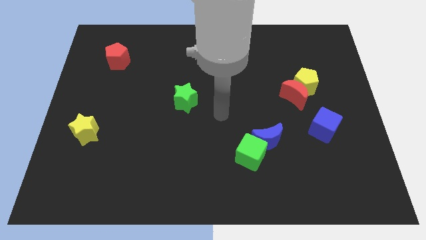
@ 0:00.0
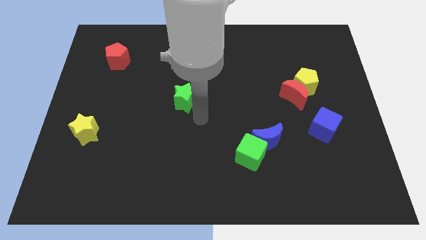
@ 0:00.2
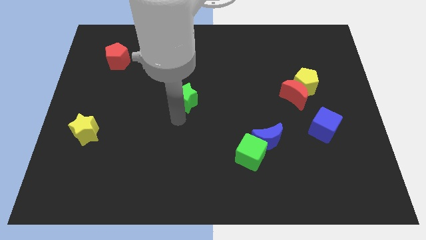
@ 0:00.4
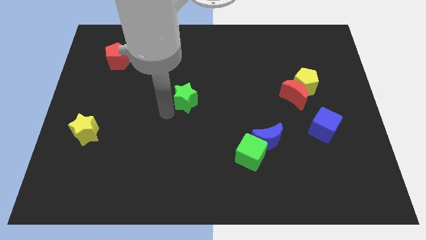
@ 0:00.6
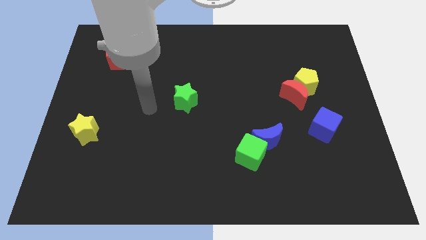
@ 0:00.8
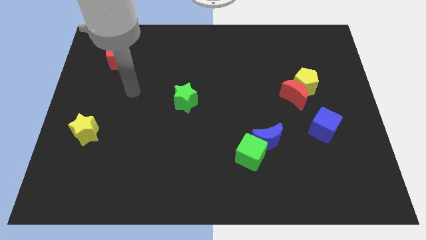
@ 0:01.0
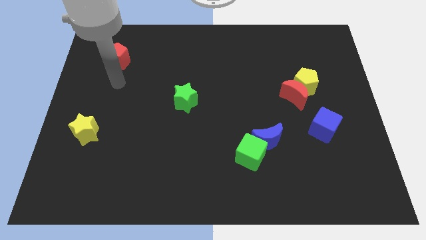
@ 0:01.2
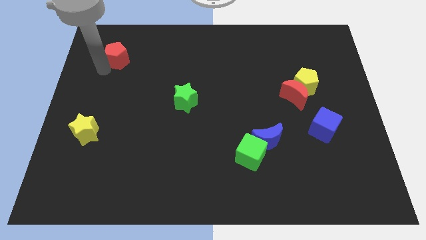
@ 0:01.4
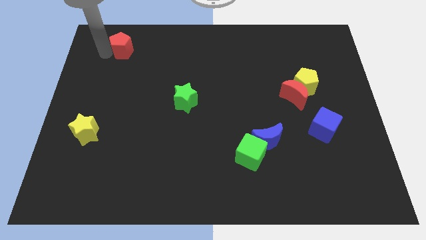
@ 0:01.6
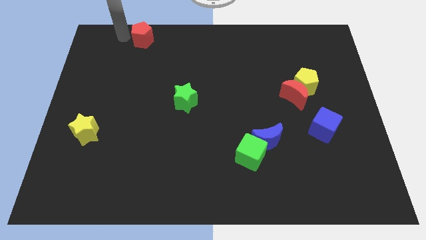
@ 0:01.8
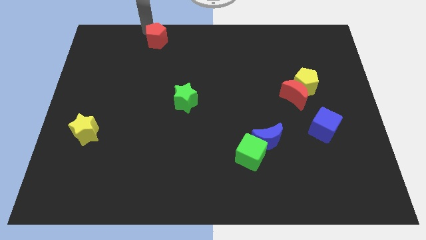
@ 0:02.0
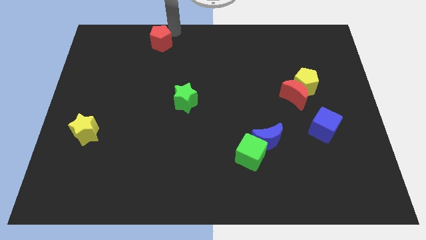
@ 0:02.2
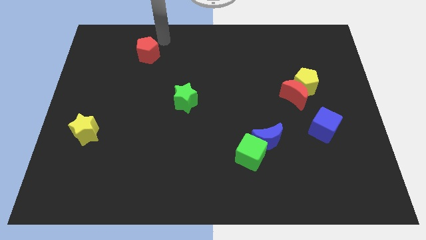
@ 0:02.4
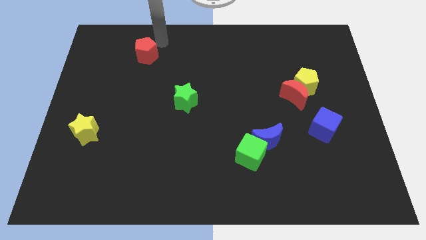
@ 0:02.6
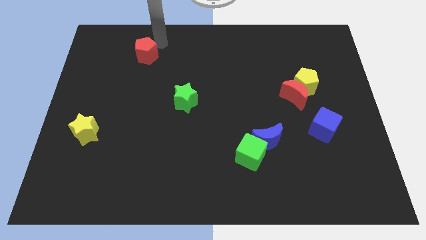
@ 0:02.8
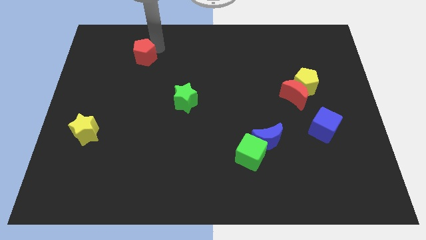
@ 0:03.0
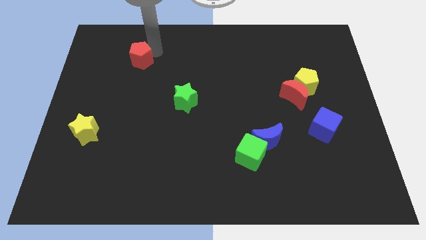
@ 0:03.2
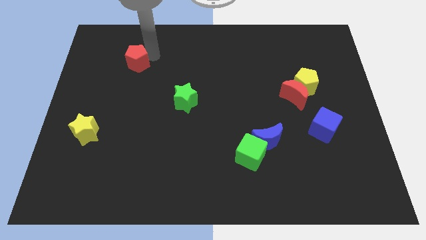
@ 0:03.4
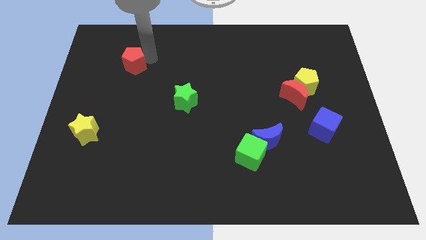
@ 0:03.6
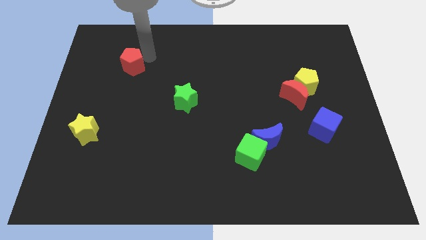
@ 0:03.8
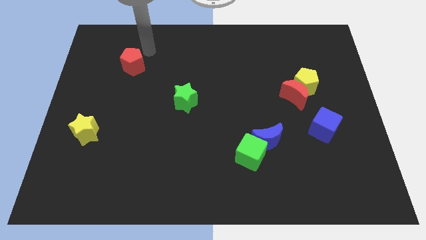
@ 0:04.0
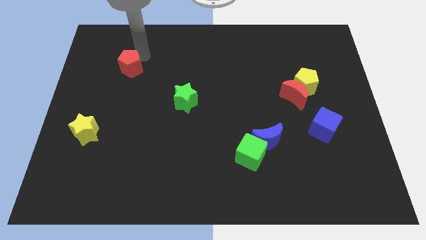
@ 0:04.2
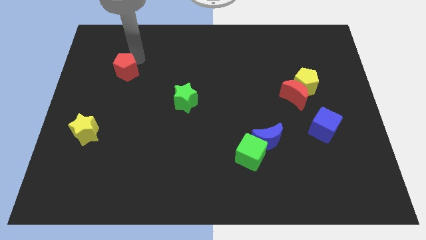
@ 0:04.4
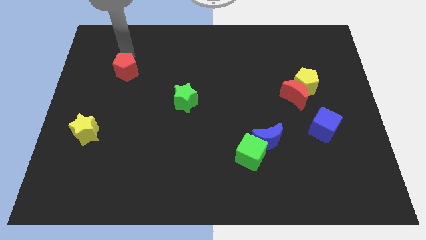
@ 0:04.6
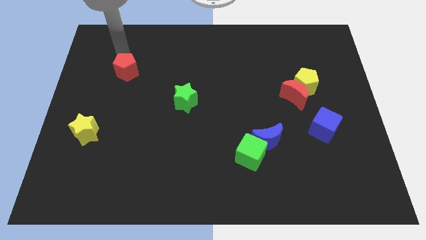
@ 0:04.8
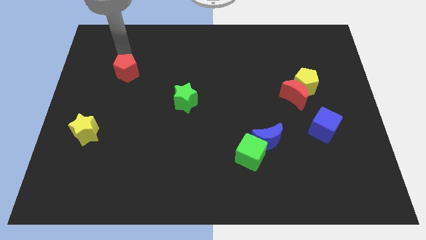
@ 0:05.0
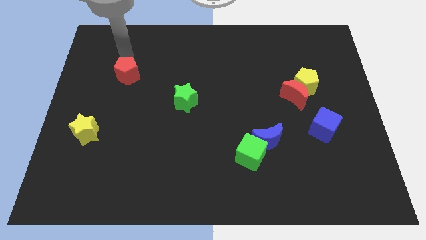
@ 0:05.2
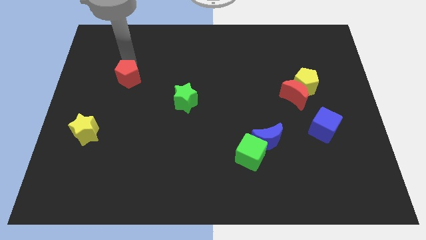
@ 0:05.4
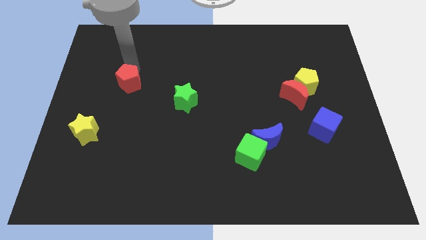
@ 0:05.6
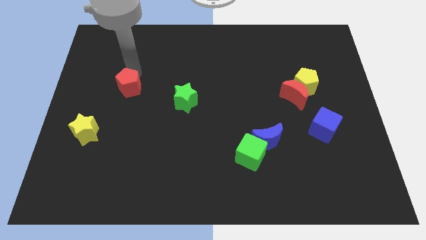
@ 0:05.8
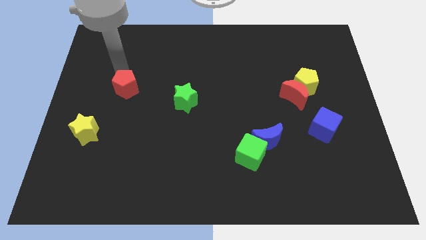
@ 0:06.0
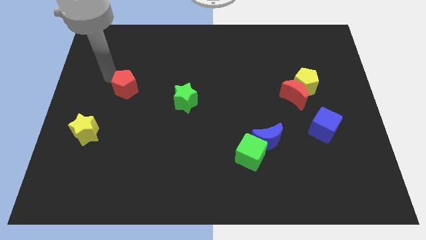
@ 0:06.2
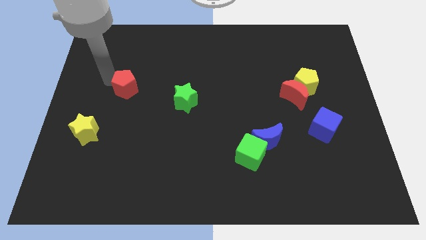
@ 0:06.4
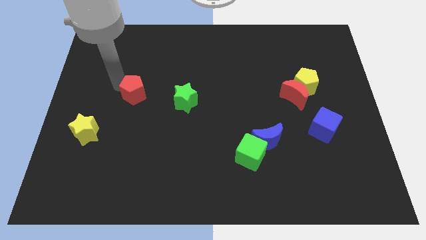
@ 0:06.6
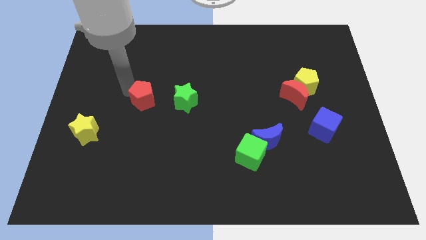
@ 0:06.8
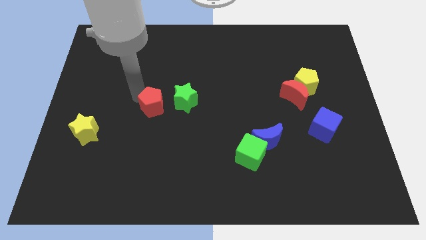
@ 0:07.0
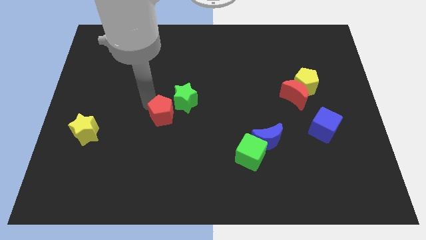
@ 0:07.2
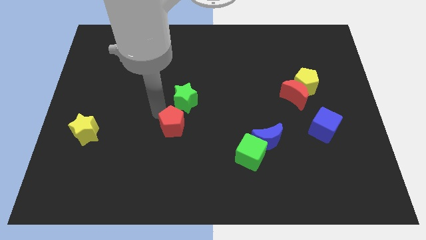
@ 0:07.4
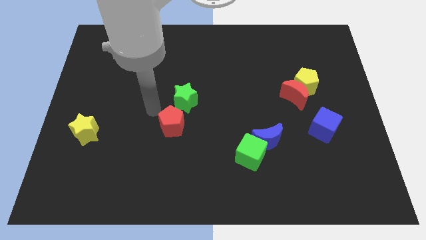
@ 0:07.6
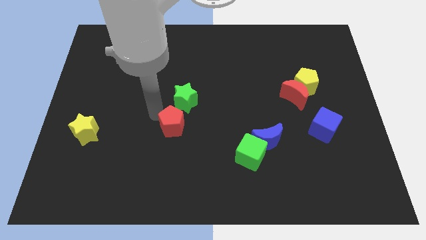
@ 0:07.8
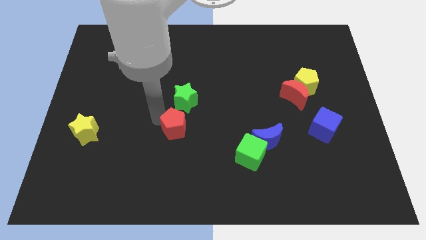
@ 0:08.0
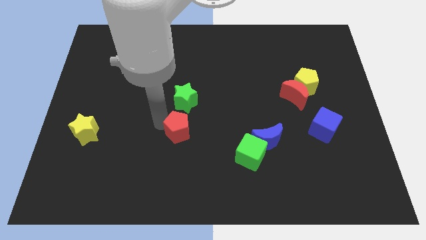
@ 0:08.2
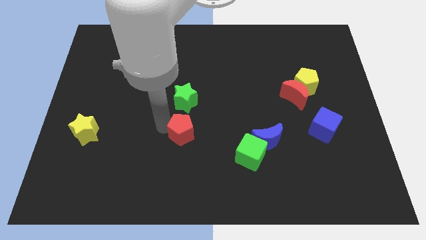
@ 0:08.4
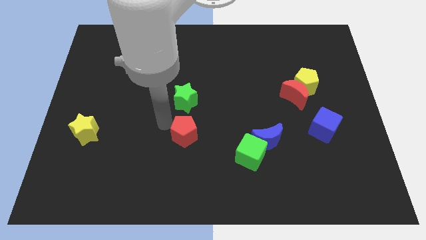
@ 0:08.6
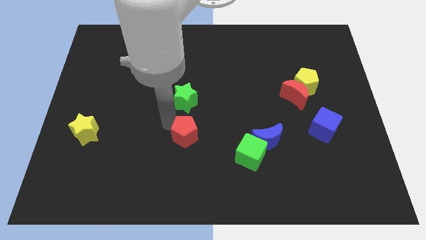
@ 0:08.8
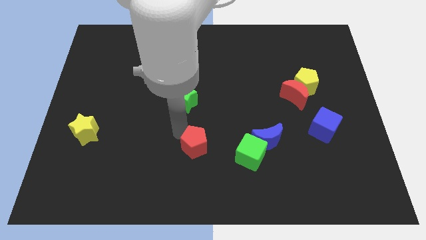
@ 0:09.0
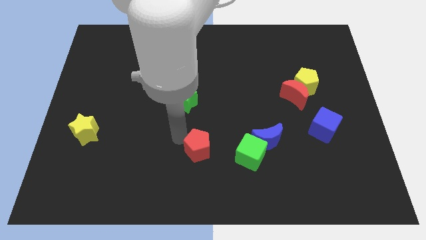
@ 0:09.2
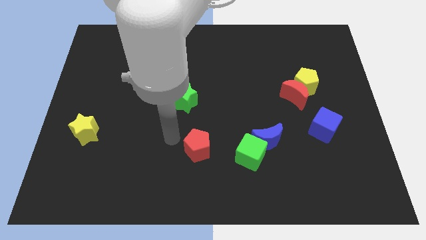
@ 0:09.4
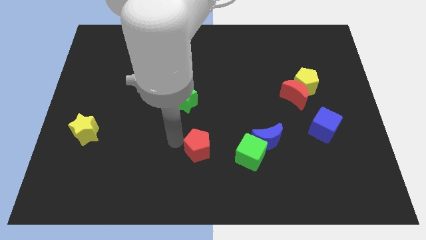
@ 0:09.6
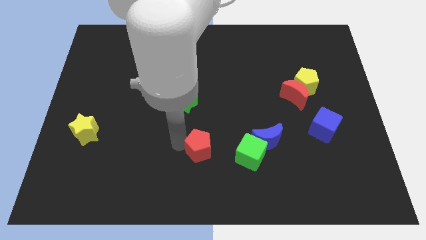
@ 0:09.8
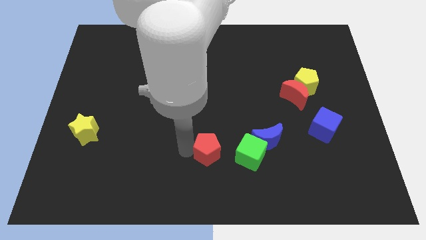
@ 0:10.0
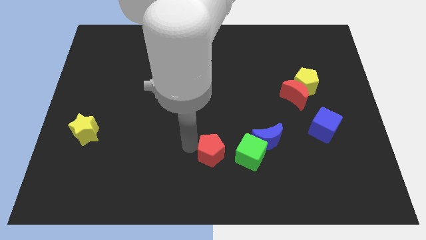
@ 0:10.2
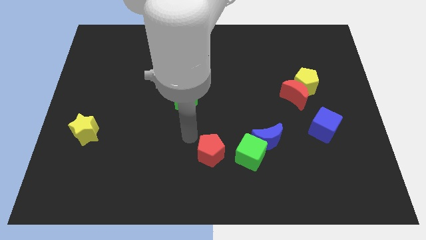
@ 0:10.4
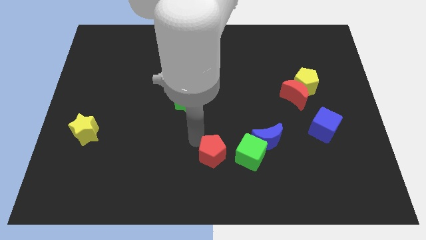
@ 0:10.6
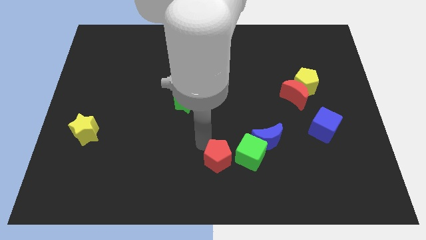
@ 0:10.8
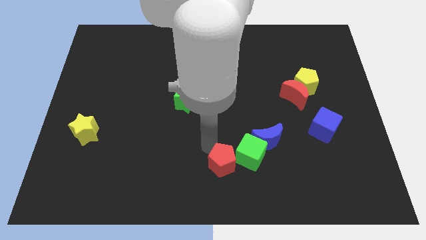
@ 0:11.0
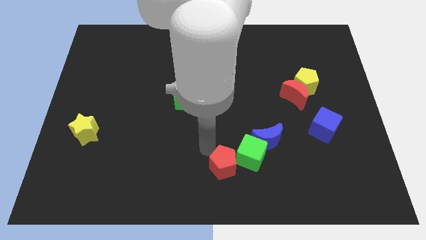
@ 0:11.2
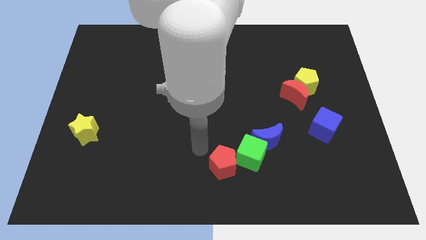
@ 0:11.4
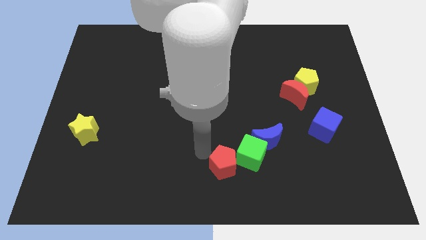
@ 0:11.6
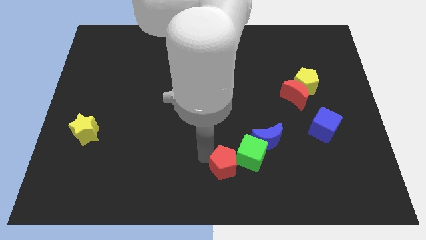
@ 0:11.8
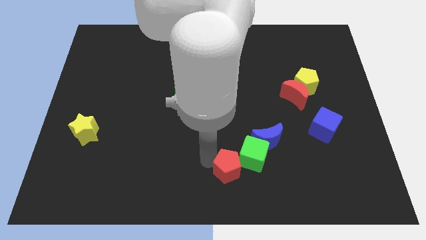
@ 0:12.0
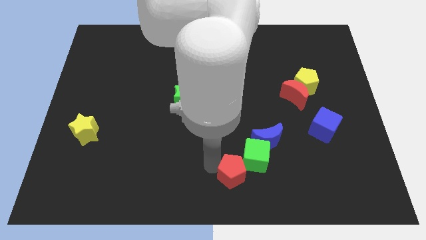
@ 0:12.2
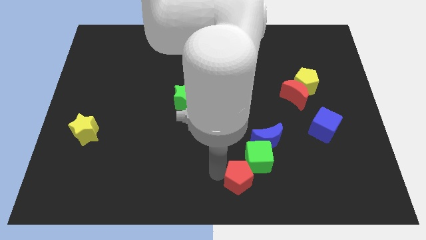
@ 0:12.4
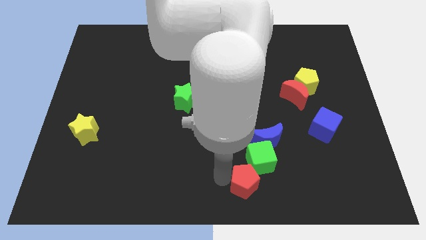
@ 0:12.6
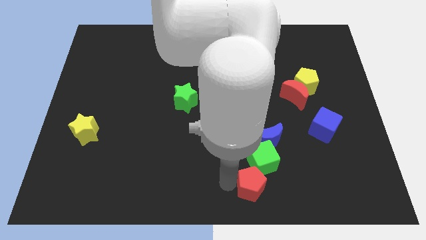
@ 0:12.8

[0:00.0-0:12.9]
move the red pentagon below the blue moon

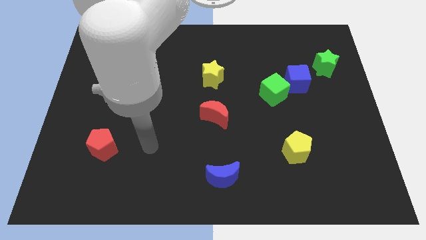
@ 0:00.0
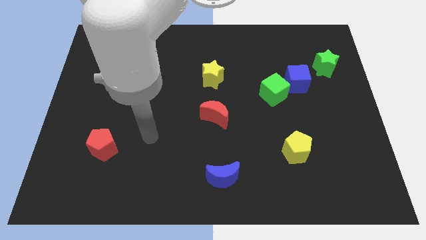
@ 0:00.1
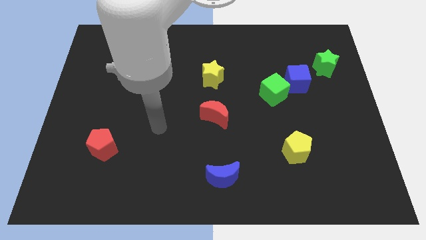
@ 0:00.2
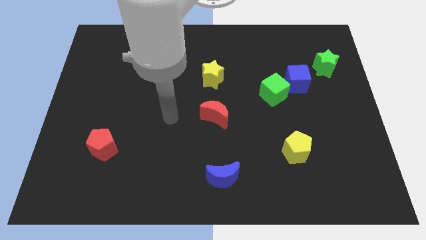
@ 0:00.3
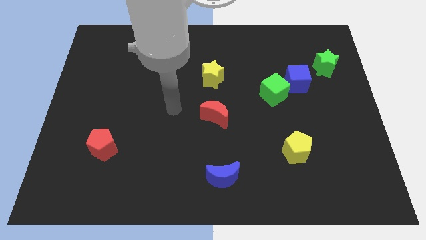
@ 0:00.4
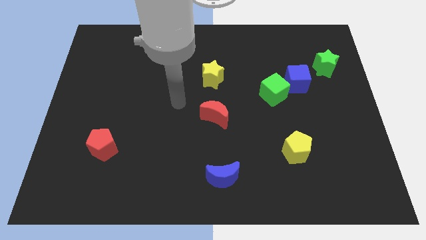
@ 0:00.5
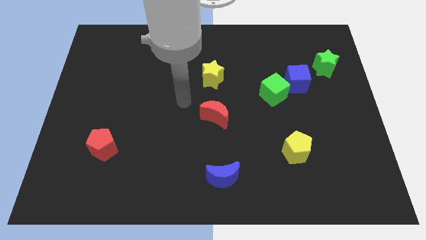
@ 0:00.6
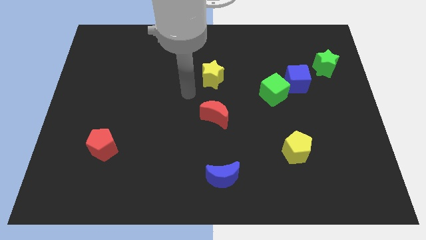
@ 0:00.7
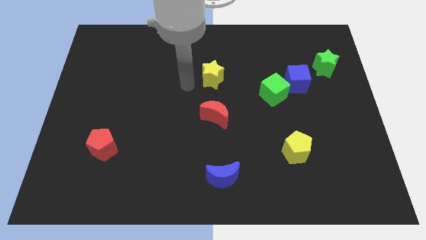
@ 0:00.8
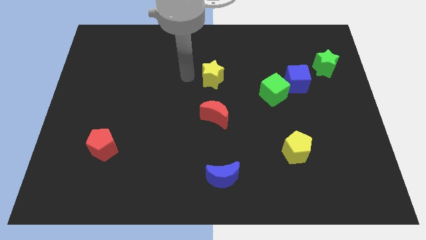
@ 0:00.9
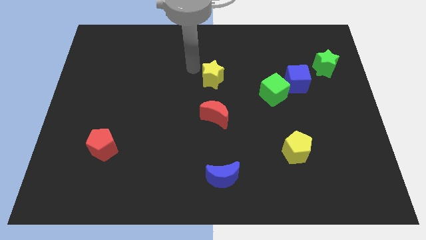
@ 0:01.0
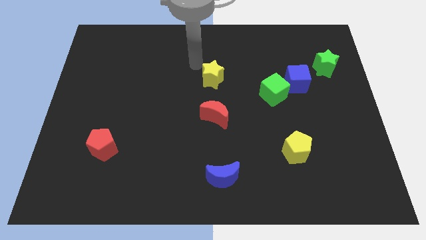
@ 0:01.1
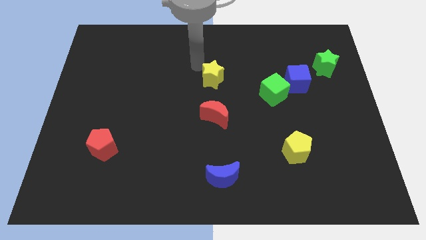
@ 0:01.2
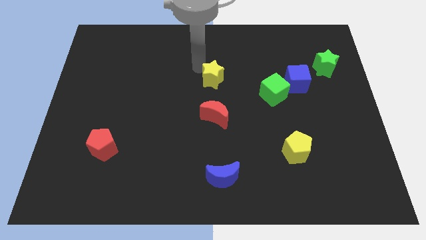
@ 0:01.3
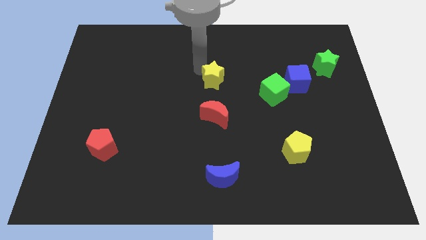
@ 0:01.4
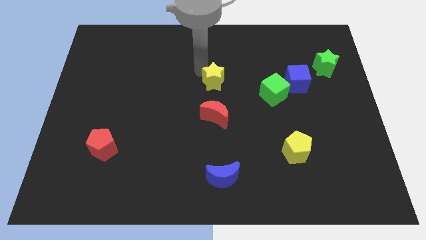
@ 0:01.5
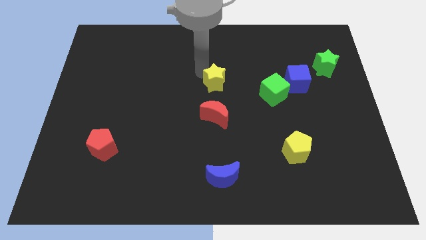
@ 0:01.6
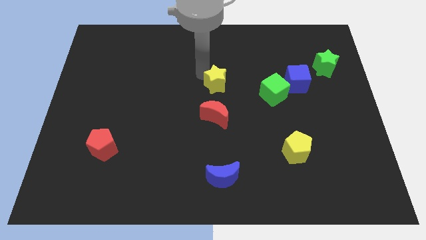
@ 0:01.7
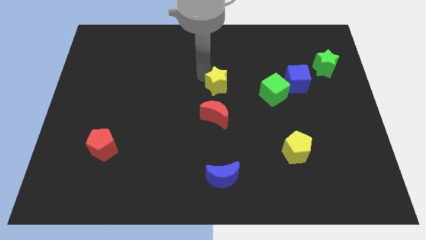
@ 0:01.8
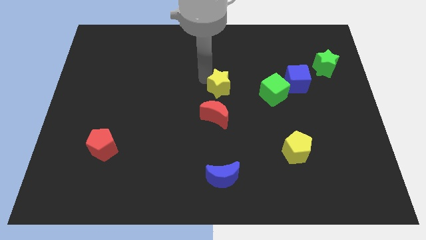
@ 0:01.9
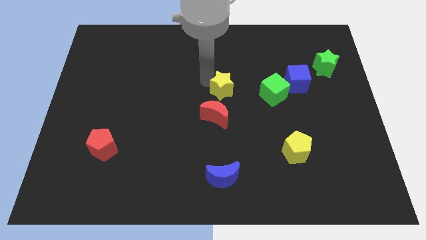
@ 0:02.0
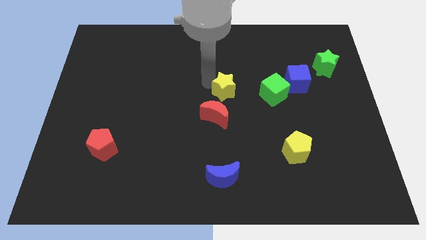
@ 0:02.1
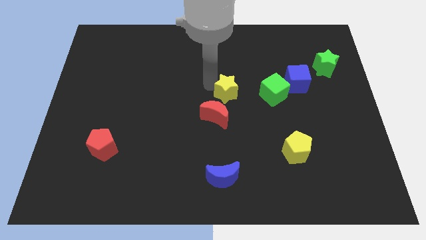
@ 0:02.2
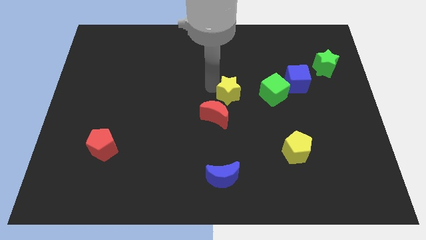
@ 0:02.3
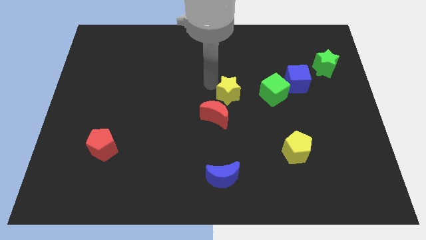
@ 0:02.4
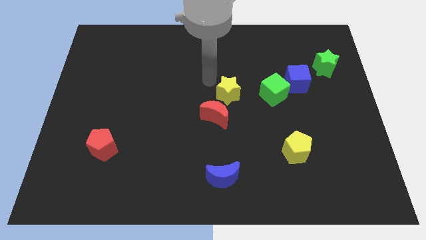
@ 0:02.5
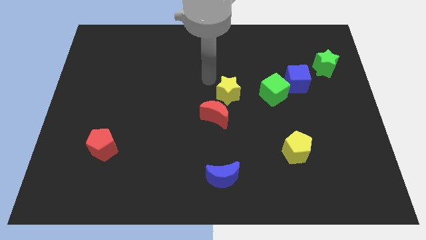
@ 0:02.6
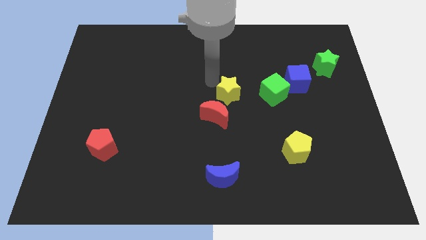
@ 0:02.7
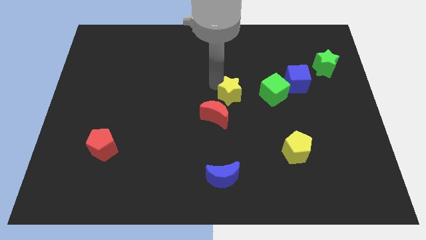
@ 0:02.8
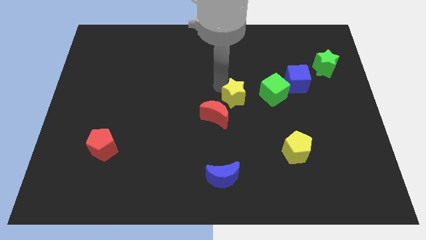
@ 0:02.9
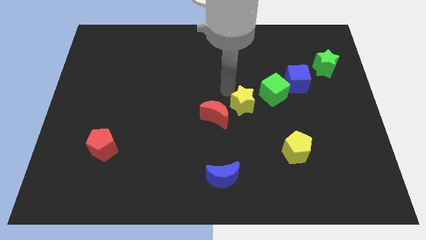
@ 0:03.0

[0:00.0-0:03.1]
push the yellow star to the right side of the red moon
